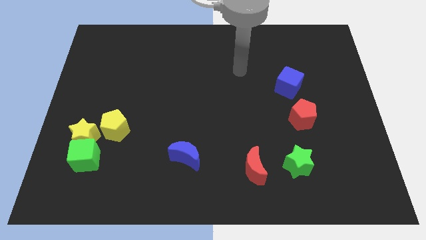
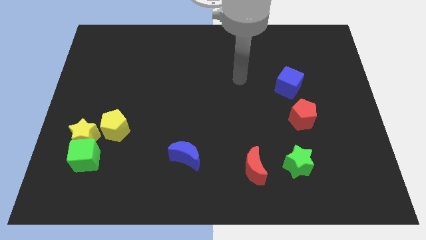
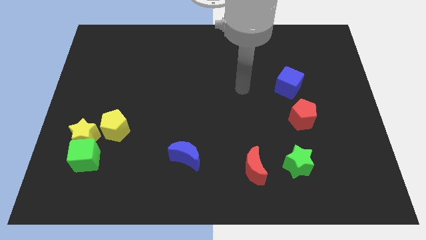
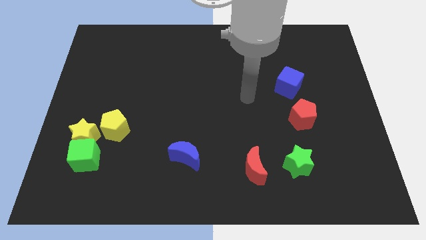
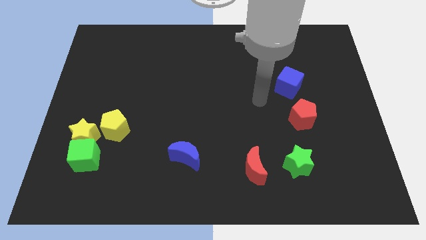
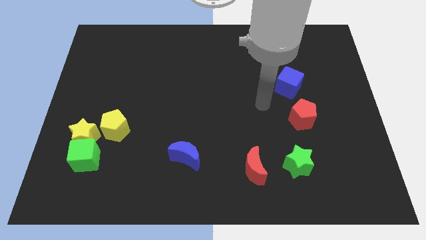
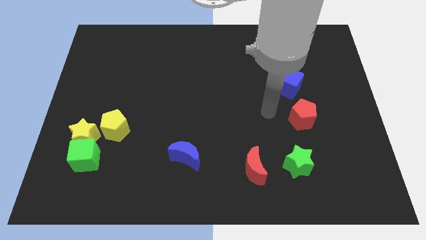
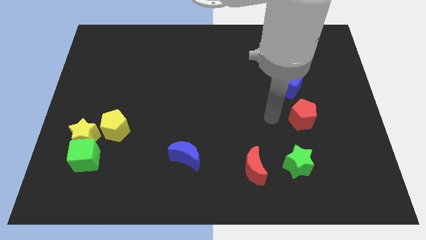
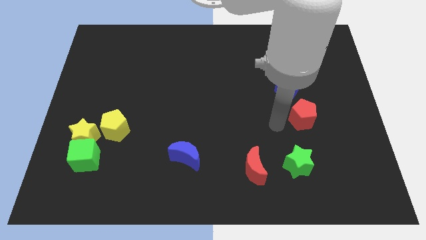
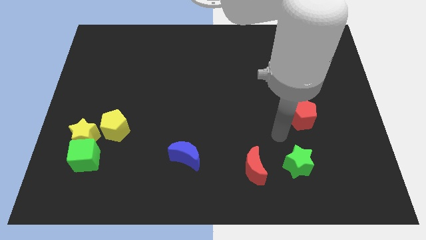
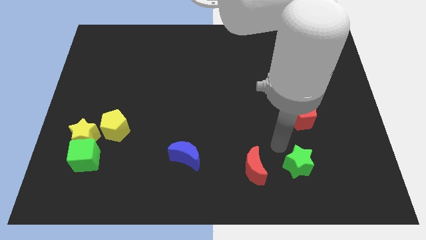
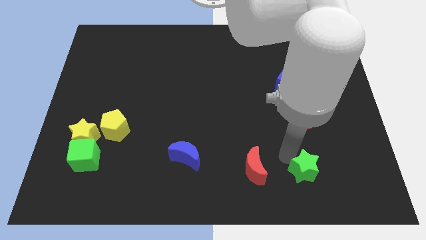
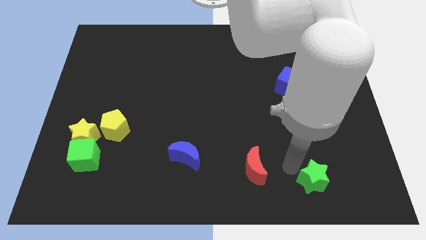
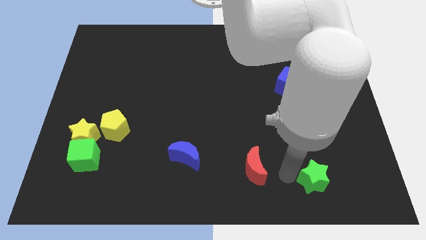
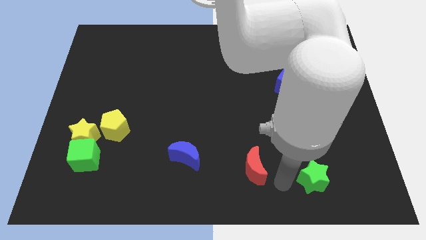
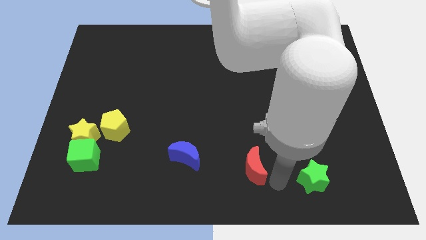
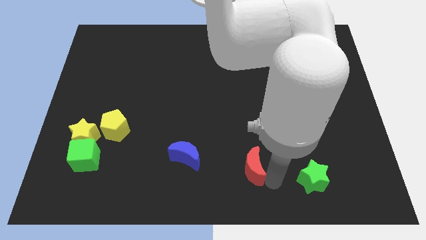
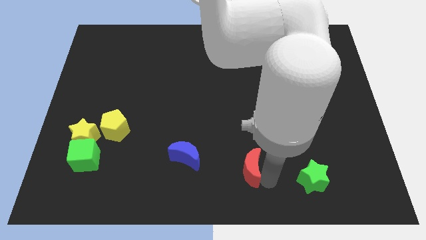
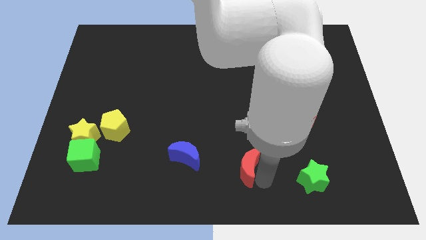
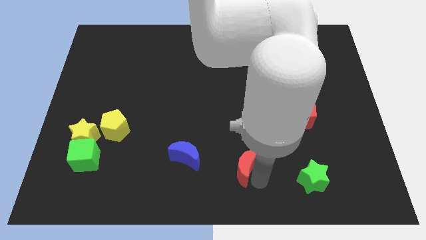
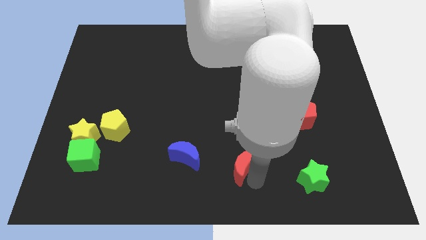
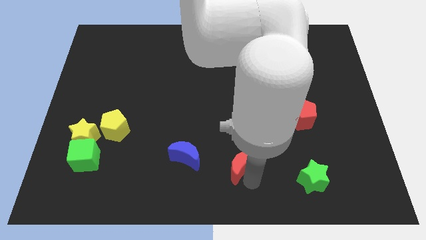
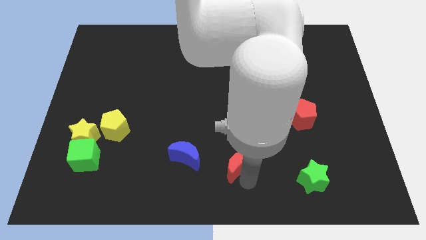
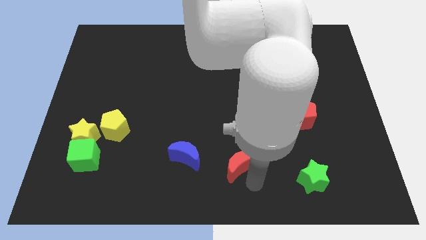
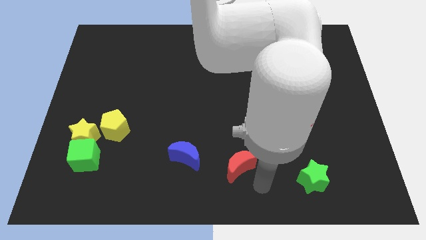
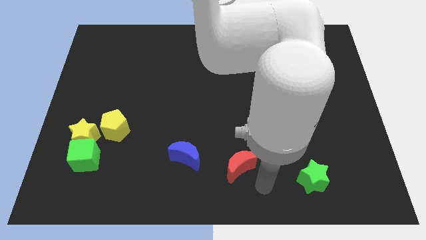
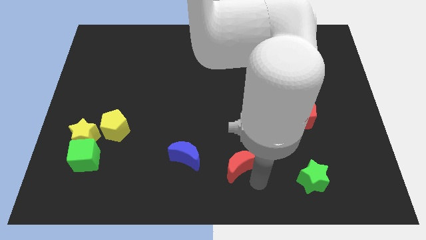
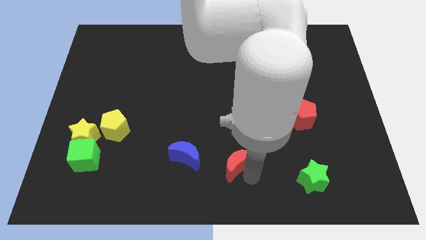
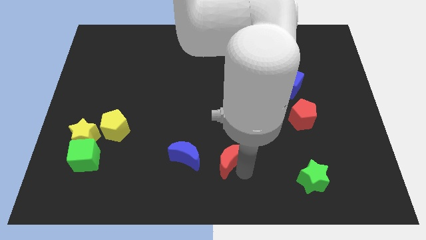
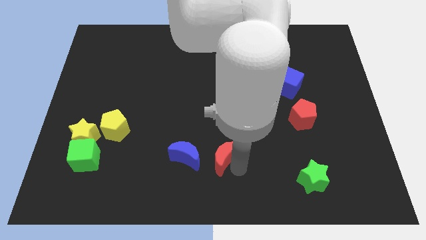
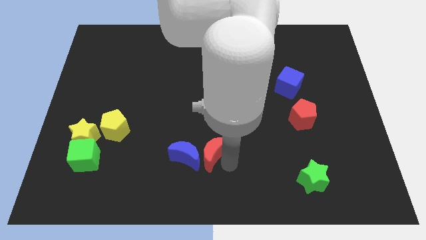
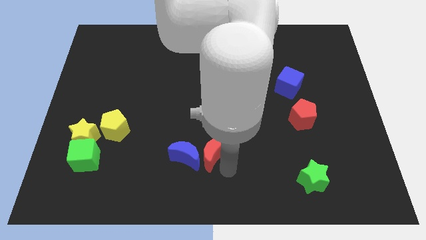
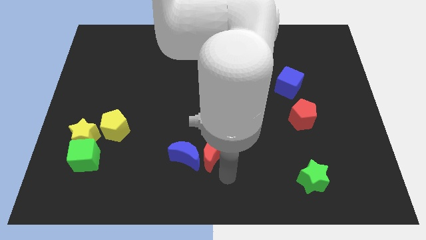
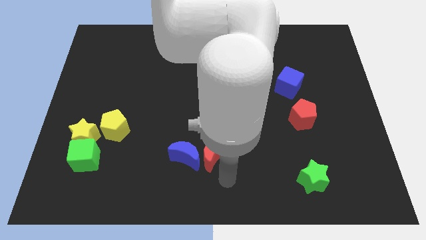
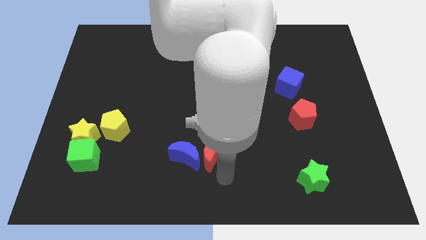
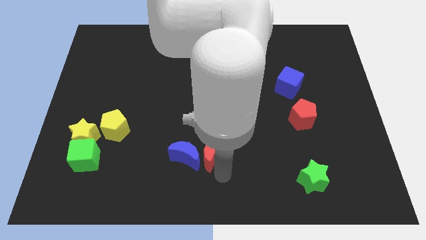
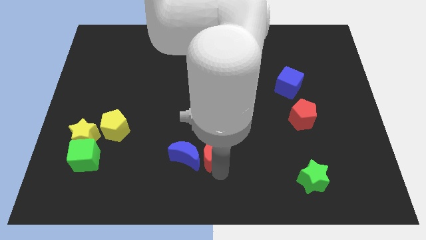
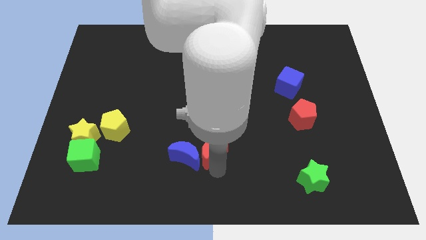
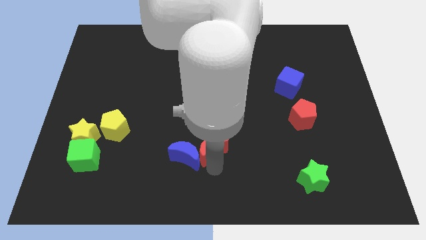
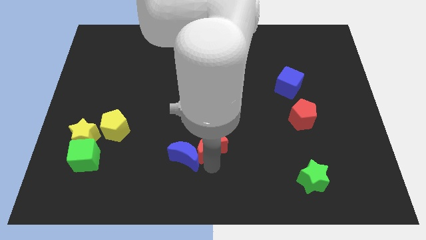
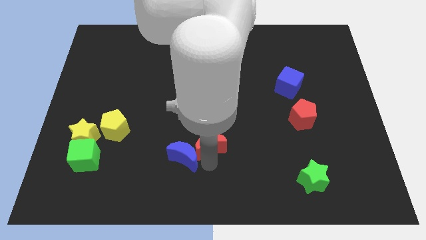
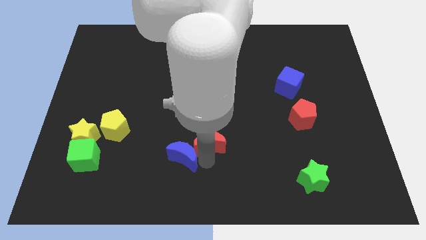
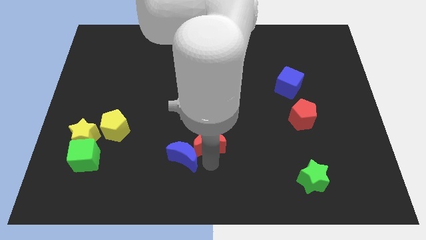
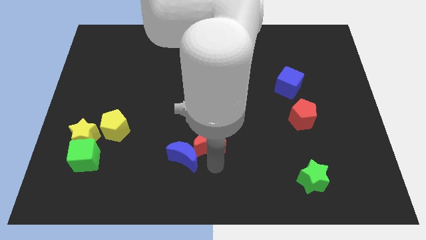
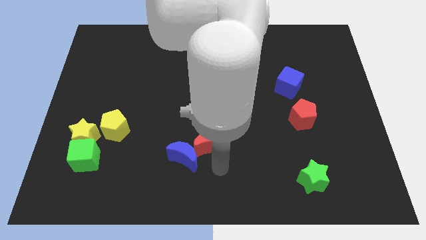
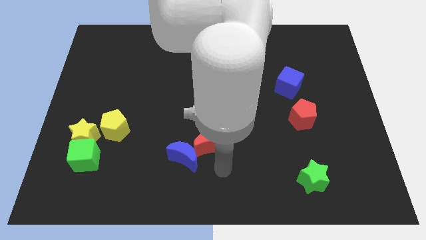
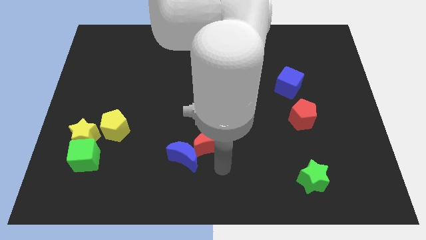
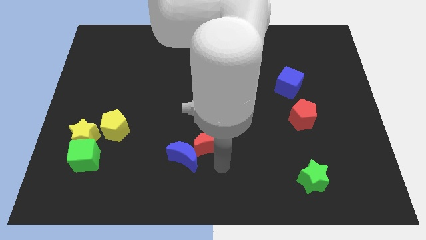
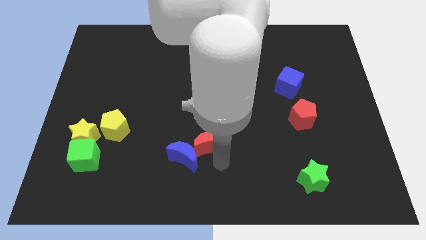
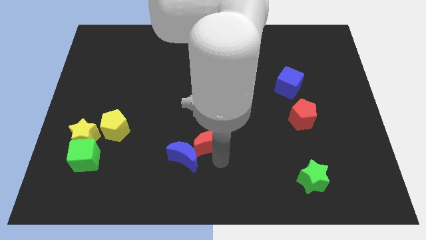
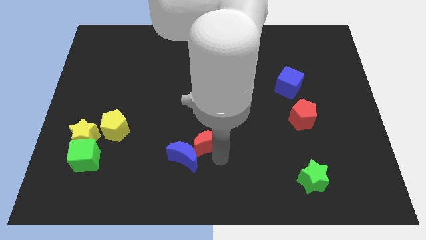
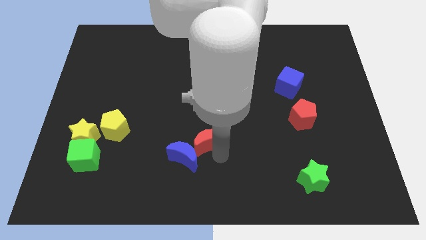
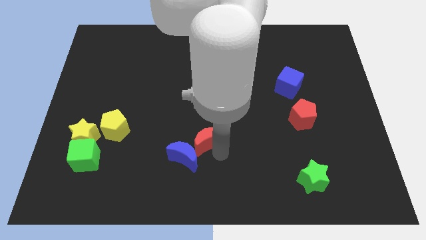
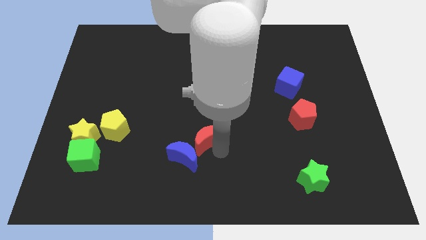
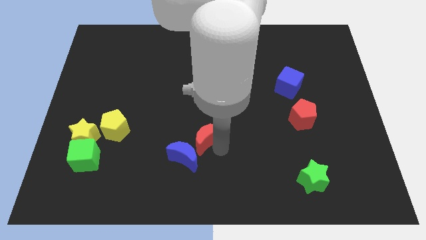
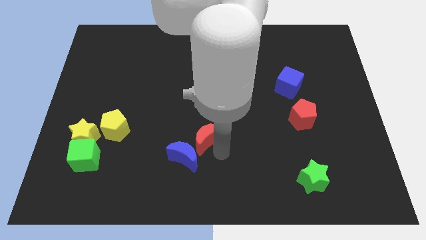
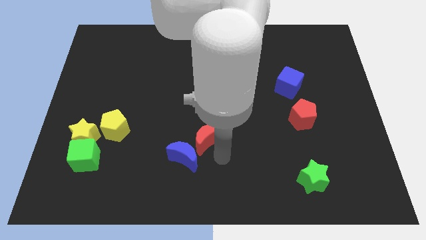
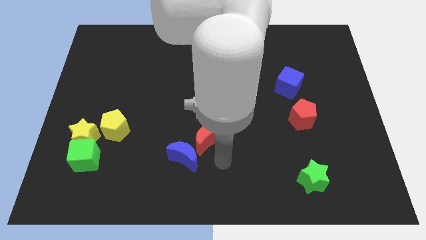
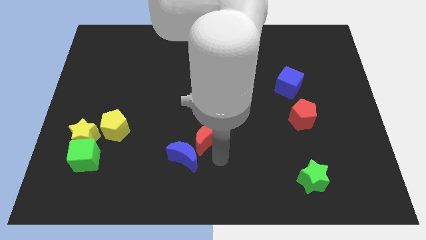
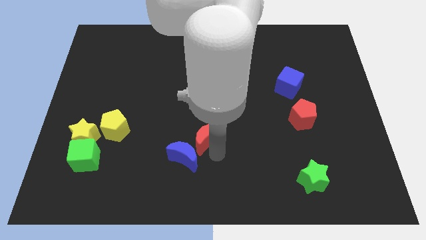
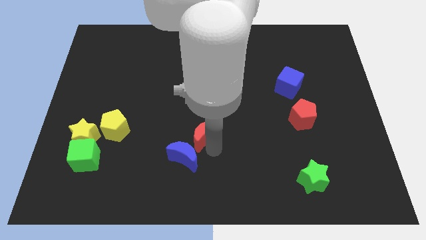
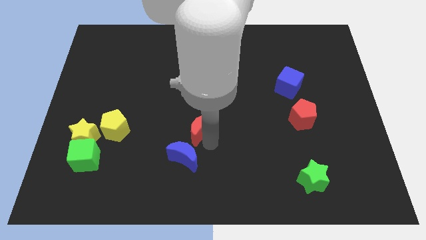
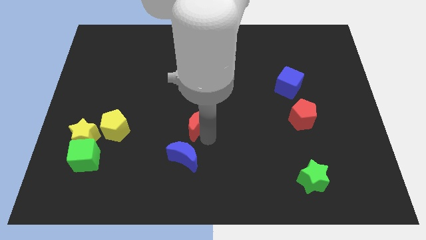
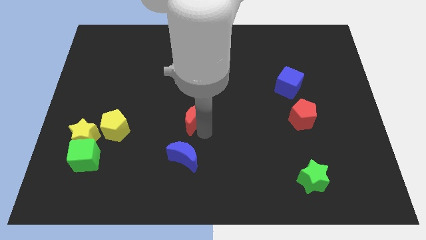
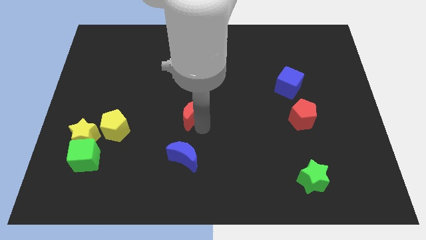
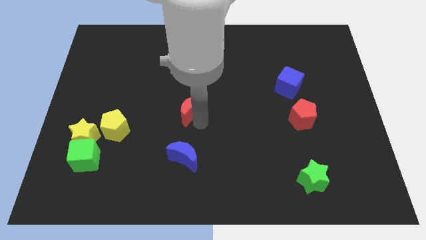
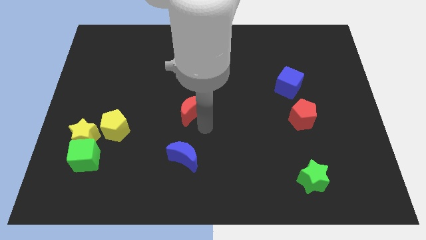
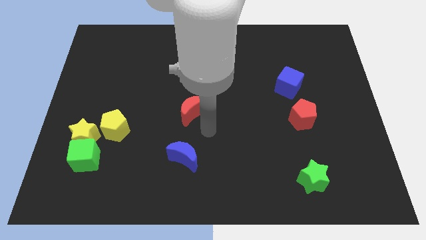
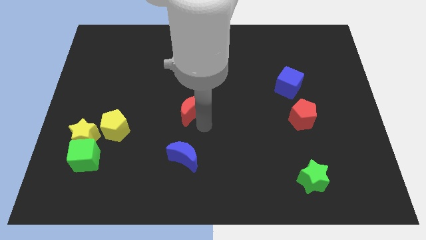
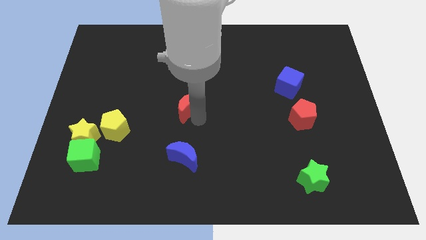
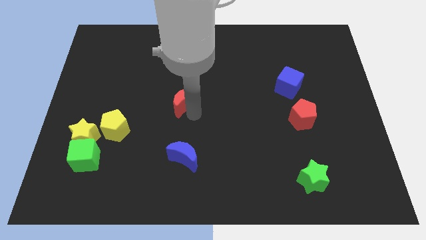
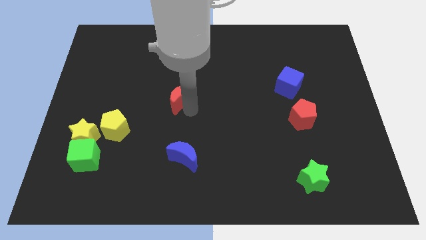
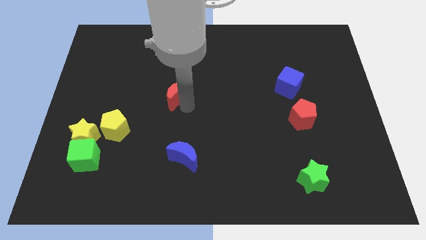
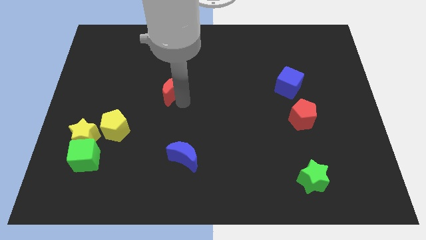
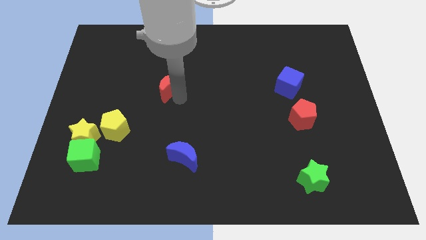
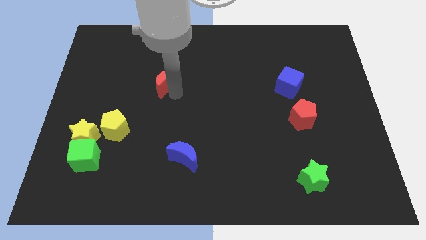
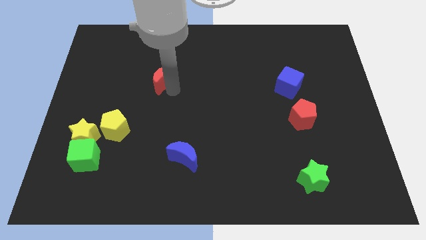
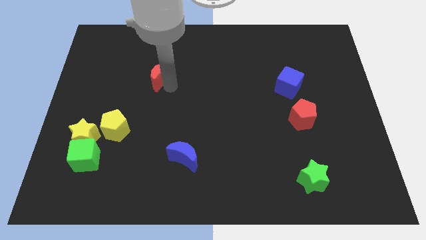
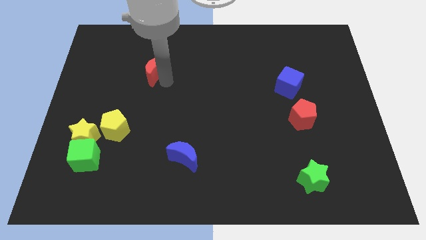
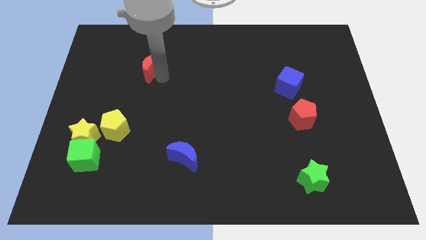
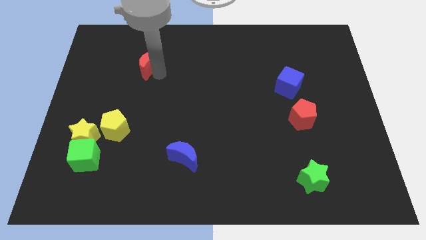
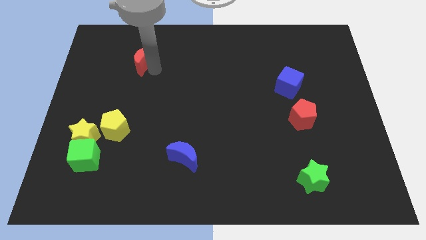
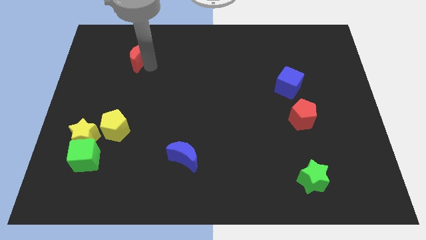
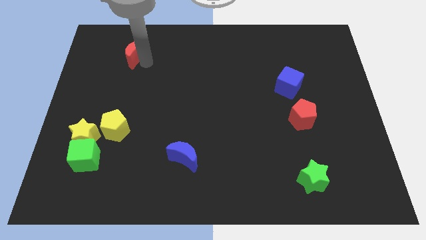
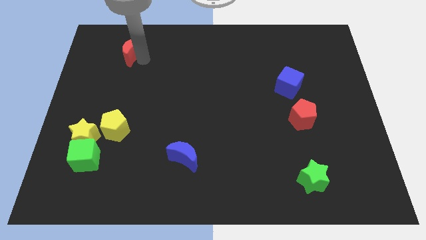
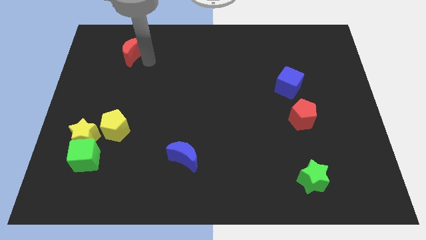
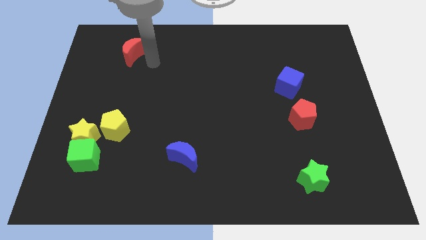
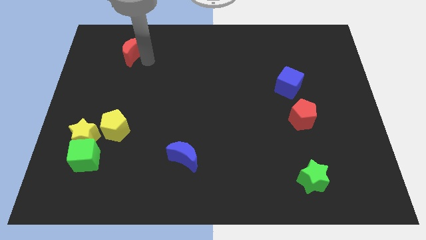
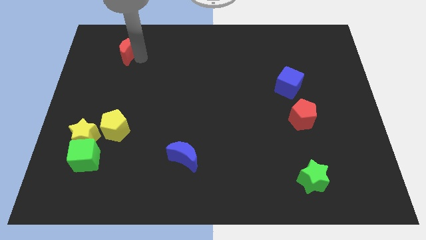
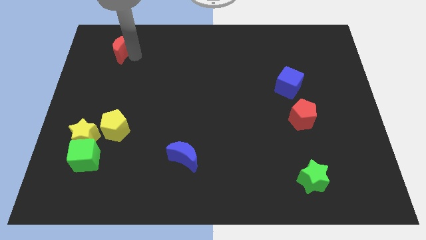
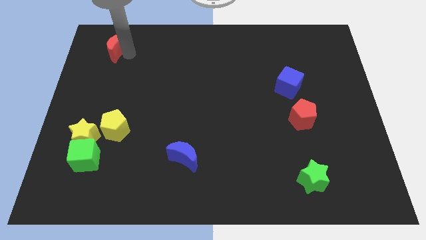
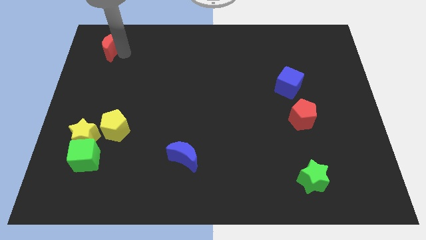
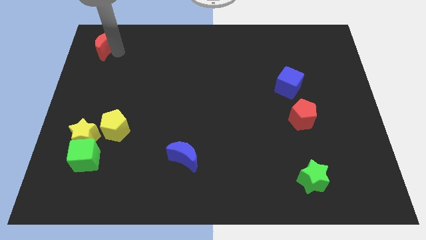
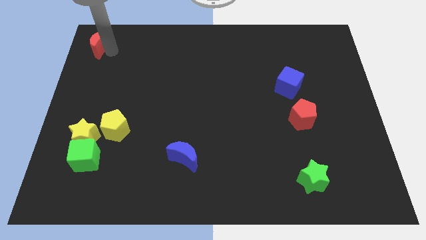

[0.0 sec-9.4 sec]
slide the red moon to the top left
